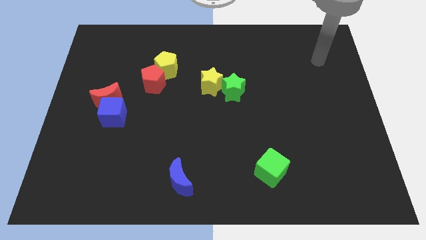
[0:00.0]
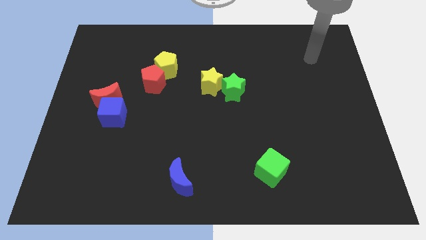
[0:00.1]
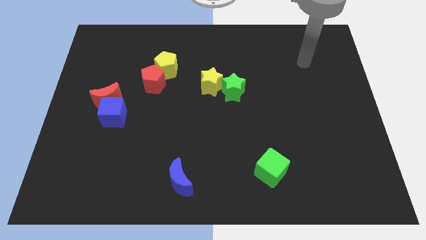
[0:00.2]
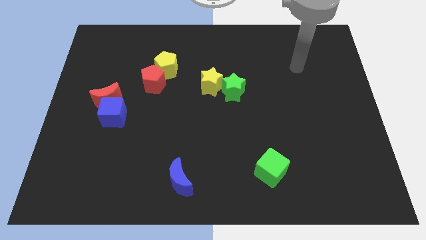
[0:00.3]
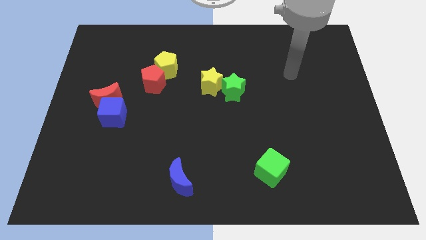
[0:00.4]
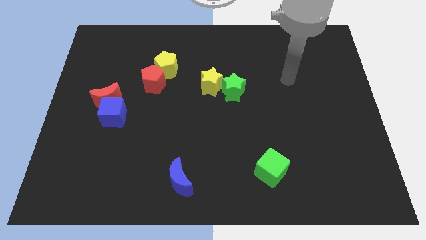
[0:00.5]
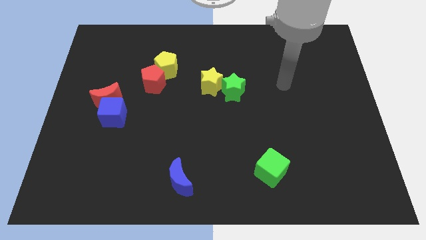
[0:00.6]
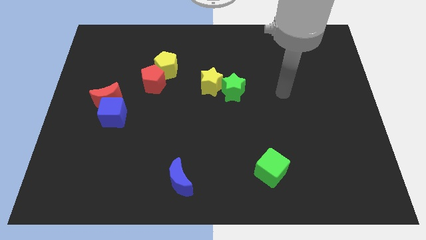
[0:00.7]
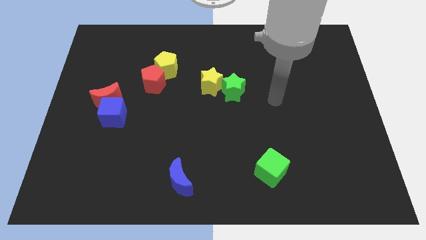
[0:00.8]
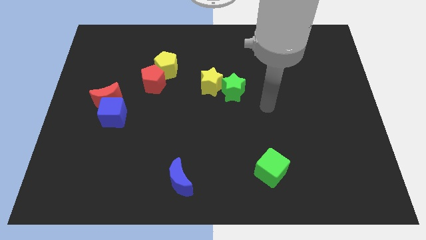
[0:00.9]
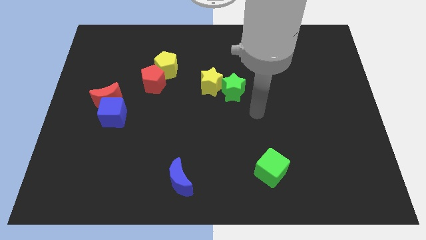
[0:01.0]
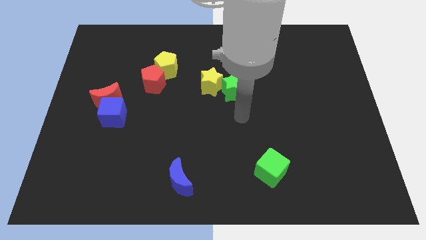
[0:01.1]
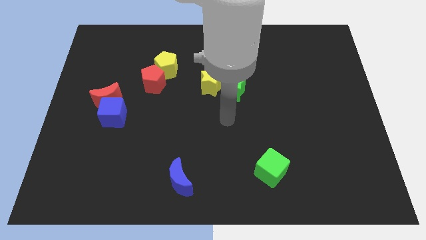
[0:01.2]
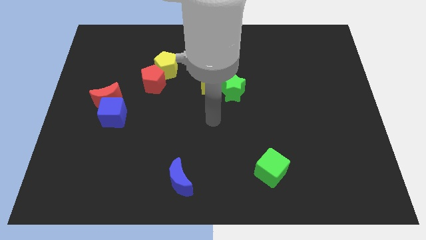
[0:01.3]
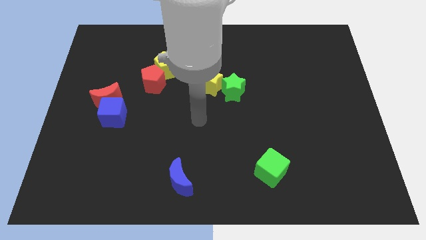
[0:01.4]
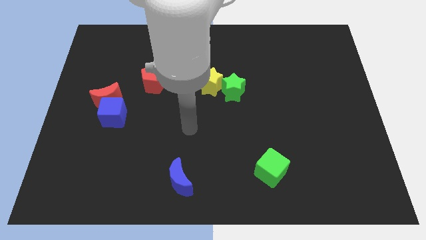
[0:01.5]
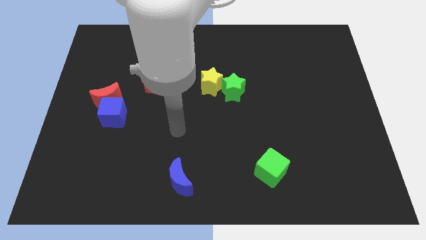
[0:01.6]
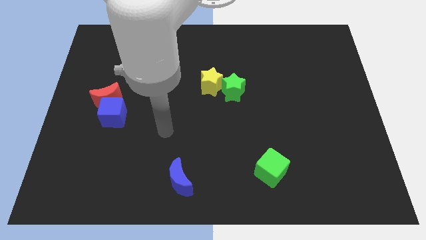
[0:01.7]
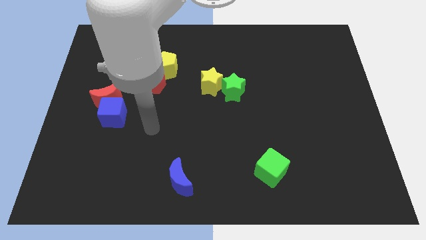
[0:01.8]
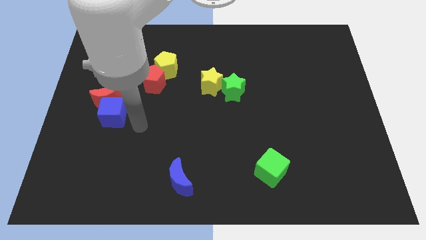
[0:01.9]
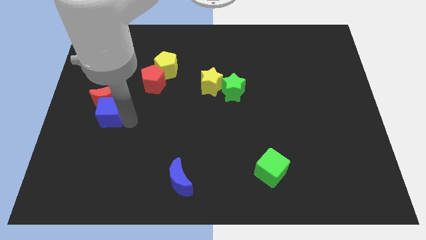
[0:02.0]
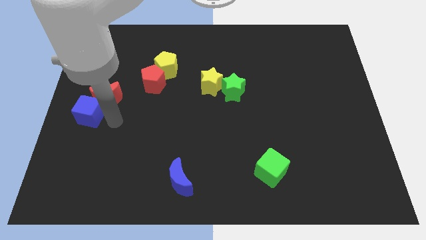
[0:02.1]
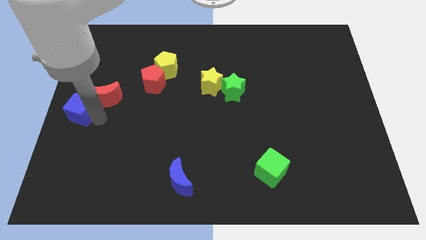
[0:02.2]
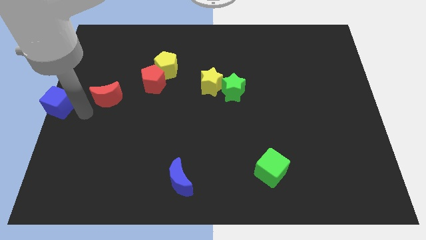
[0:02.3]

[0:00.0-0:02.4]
move the red moon away from the blue cube

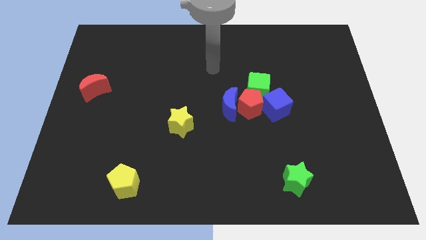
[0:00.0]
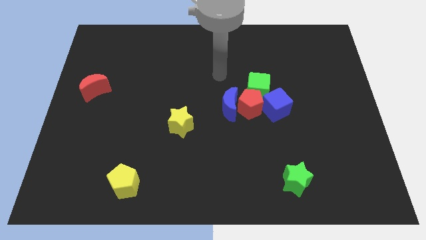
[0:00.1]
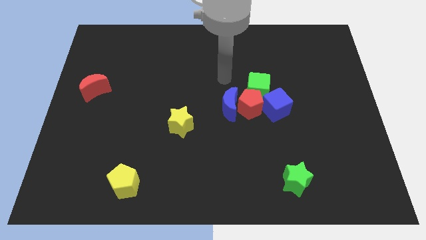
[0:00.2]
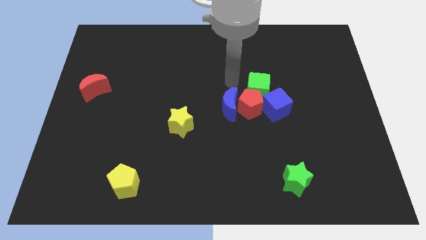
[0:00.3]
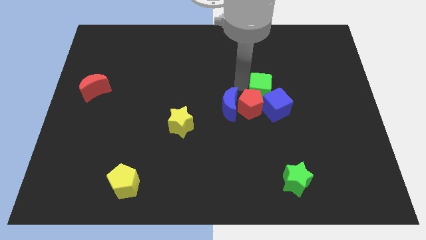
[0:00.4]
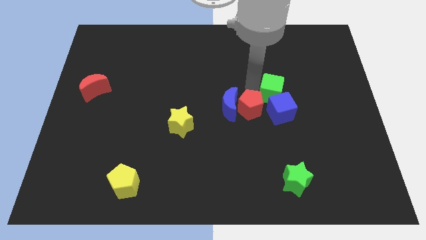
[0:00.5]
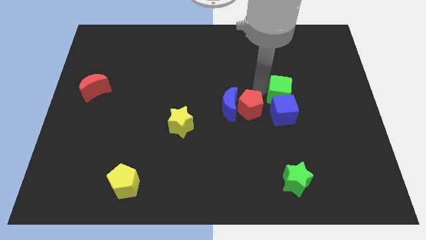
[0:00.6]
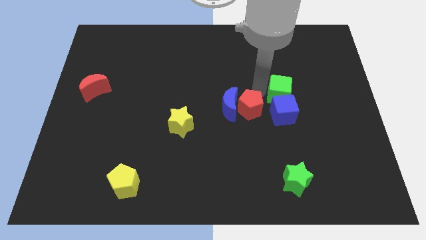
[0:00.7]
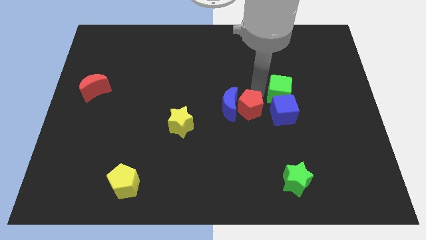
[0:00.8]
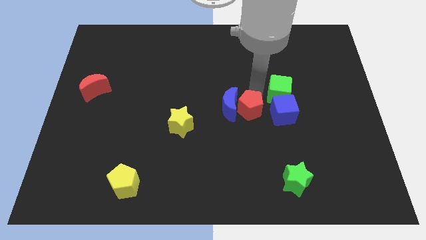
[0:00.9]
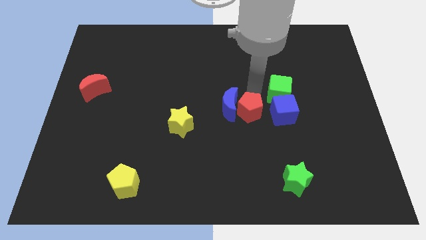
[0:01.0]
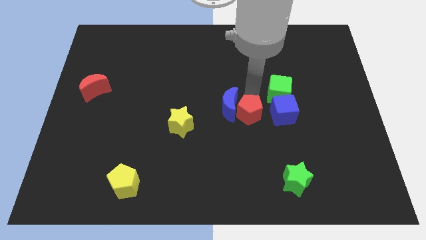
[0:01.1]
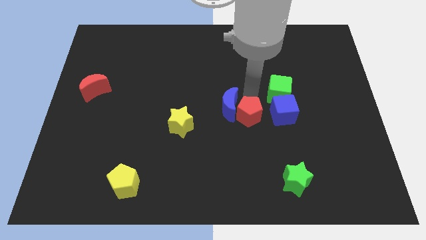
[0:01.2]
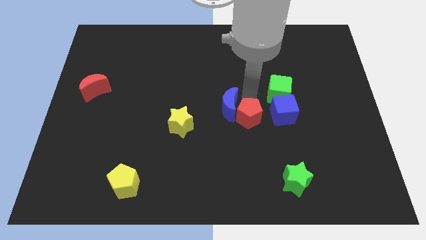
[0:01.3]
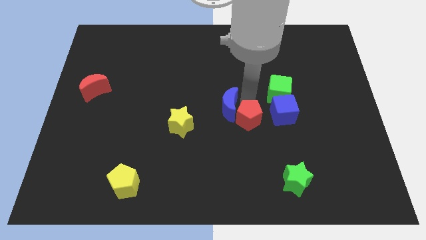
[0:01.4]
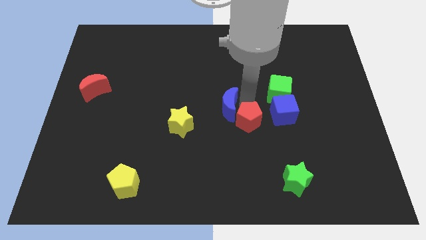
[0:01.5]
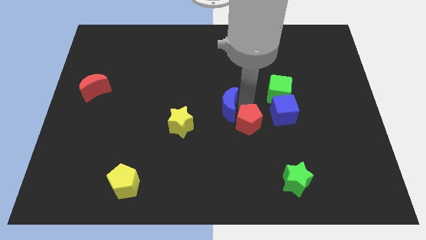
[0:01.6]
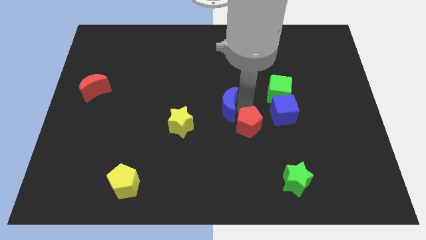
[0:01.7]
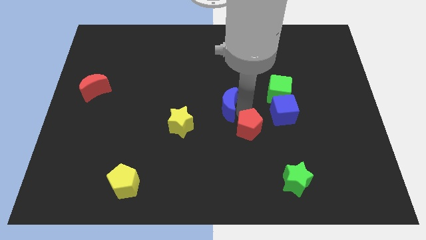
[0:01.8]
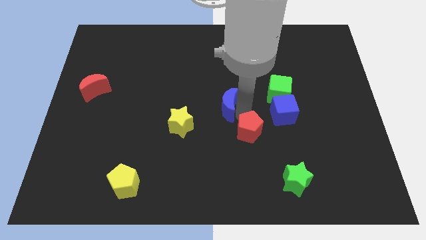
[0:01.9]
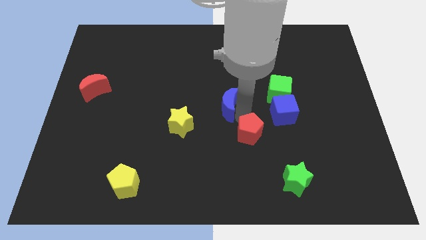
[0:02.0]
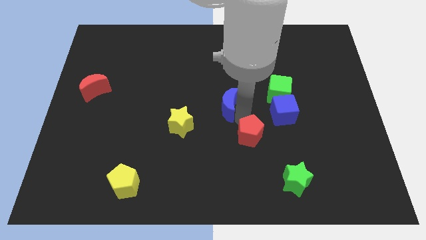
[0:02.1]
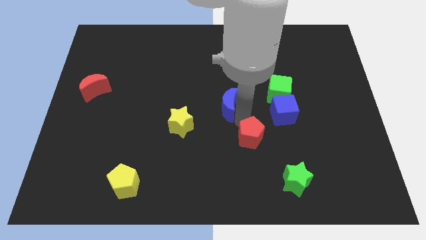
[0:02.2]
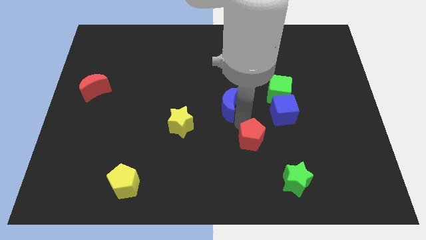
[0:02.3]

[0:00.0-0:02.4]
move the red pentagon away from the blue moon, green cube, and blue cube

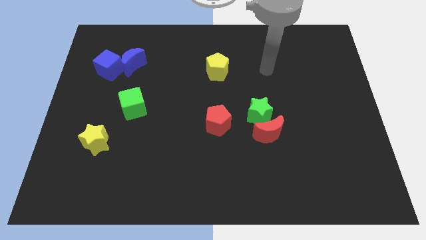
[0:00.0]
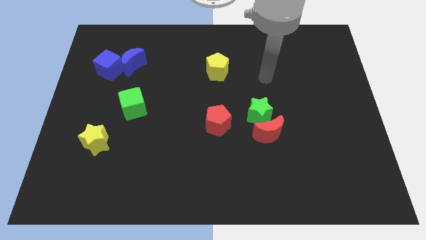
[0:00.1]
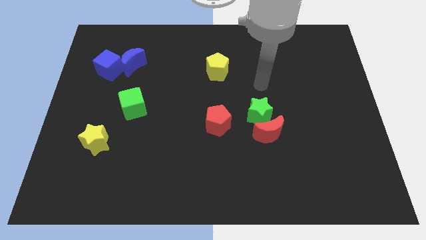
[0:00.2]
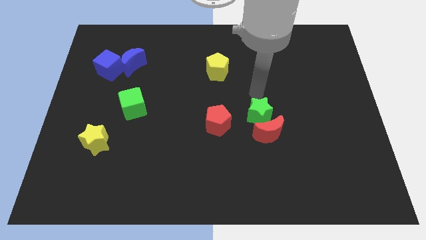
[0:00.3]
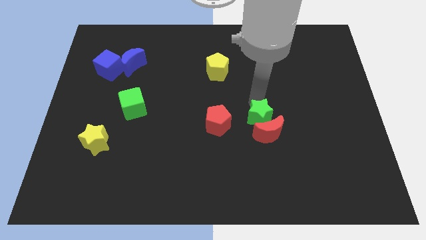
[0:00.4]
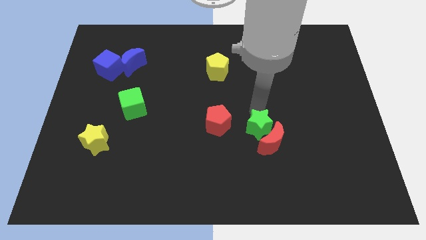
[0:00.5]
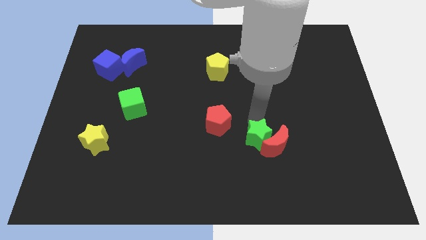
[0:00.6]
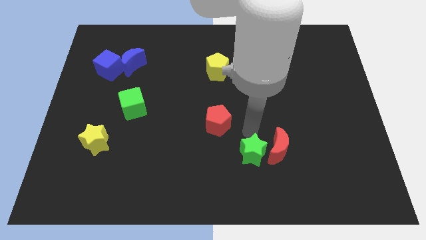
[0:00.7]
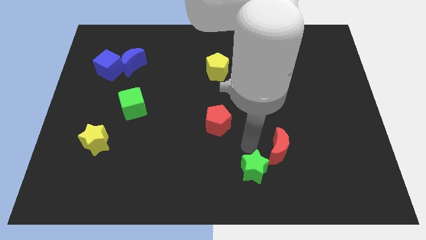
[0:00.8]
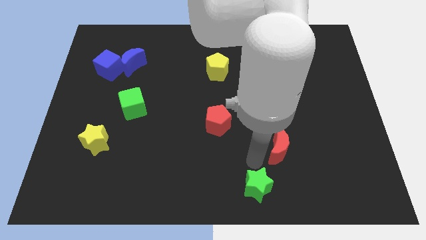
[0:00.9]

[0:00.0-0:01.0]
separate the red moon from the green star

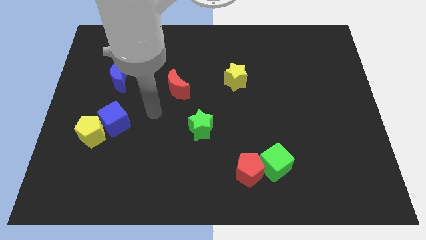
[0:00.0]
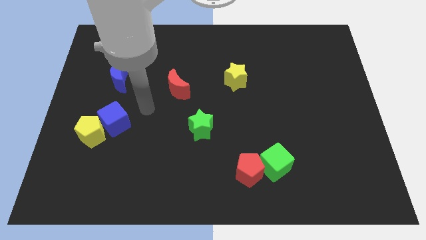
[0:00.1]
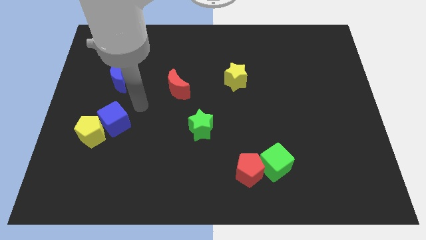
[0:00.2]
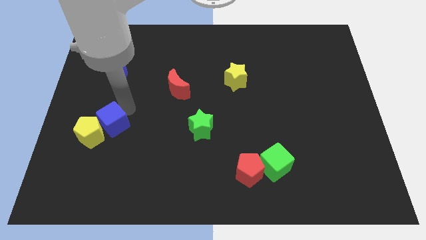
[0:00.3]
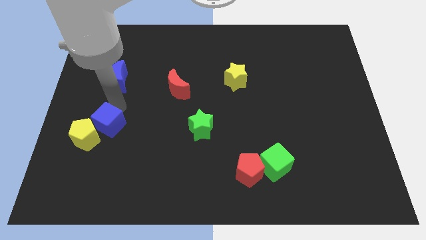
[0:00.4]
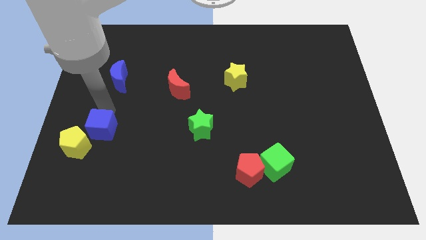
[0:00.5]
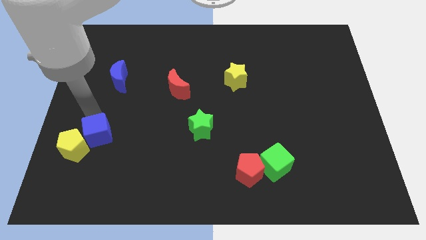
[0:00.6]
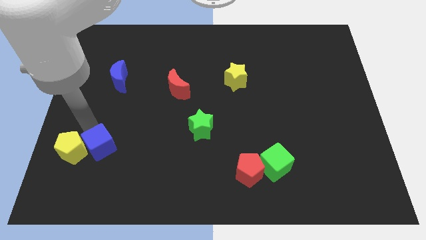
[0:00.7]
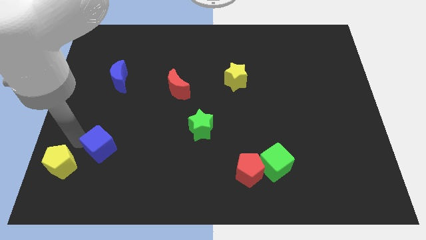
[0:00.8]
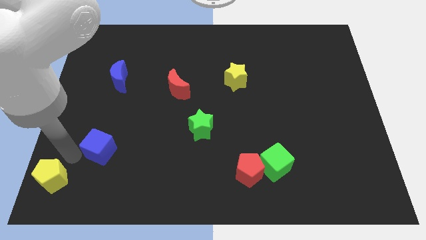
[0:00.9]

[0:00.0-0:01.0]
move the blue cube away from the yellow pentagon

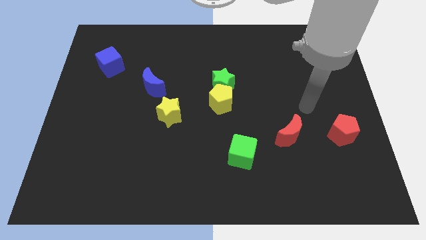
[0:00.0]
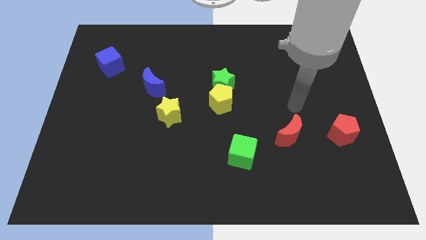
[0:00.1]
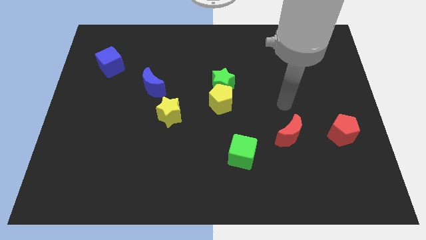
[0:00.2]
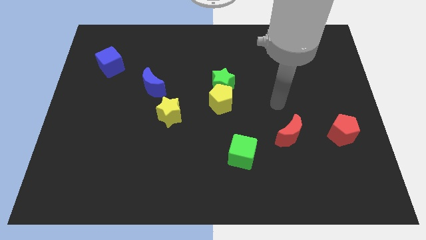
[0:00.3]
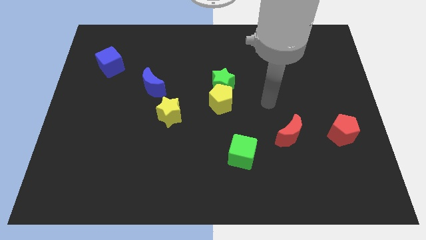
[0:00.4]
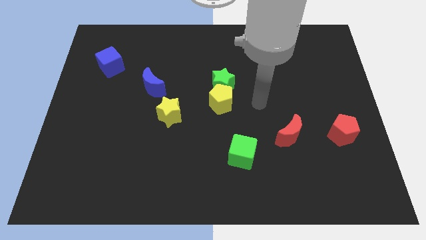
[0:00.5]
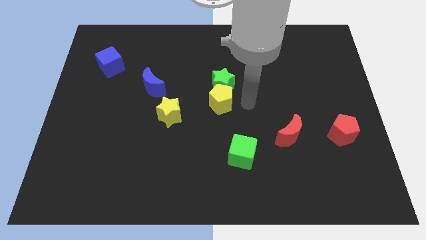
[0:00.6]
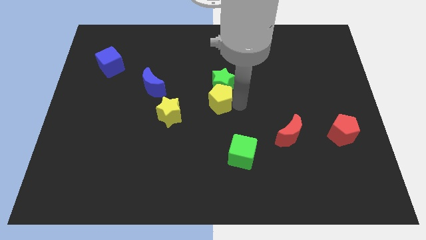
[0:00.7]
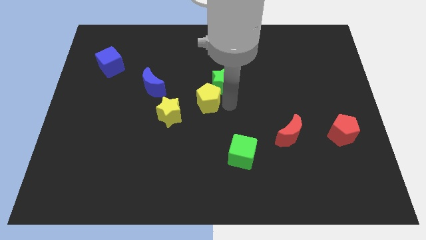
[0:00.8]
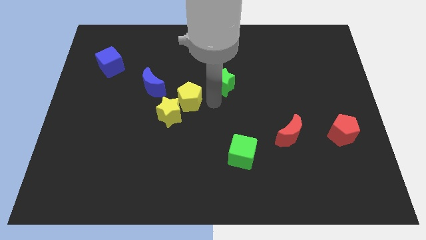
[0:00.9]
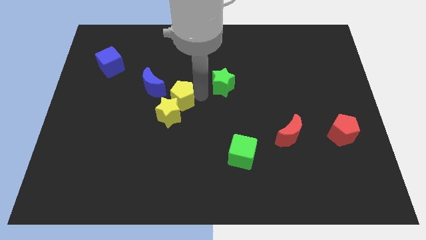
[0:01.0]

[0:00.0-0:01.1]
move the green star away from the yellow pentagon

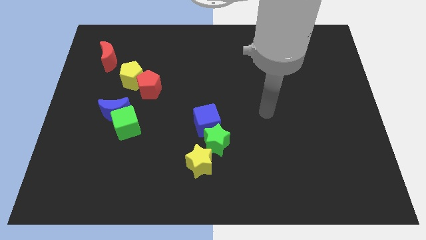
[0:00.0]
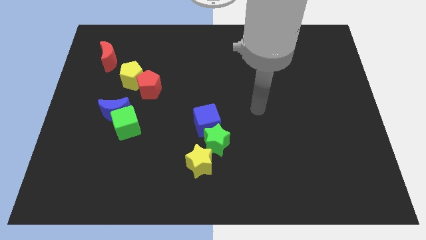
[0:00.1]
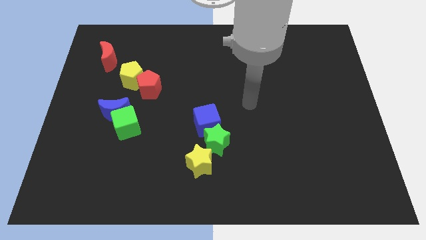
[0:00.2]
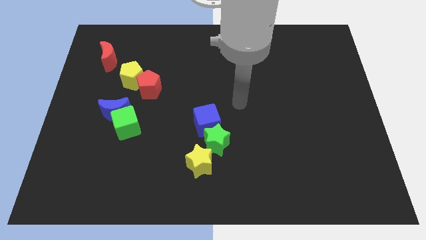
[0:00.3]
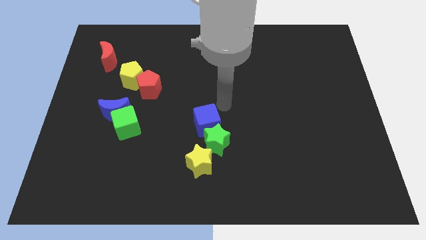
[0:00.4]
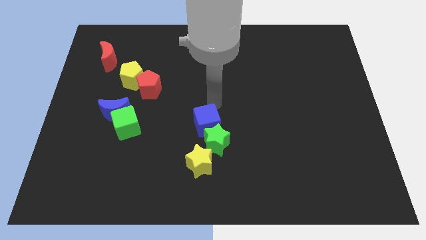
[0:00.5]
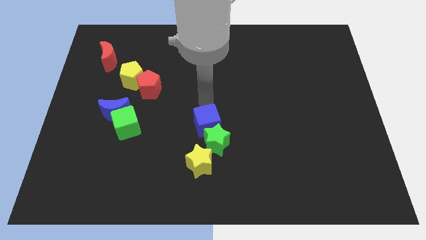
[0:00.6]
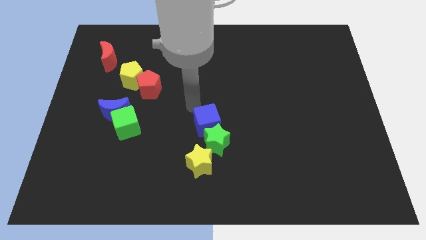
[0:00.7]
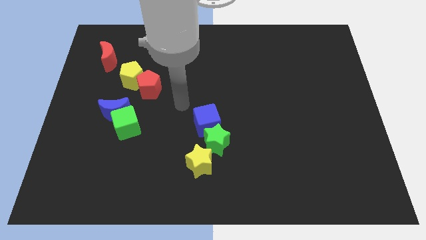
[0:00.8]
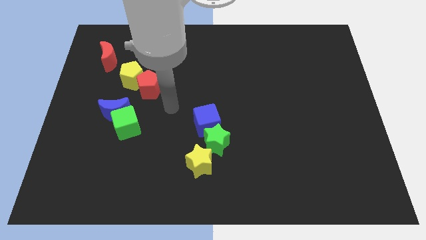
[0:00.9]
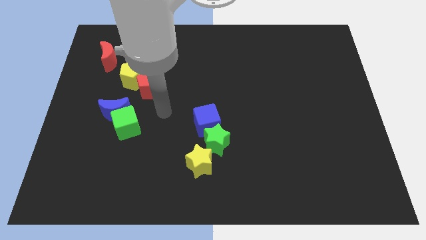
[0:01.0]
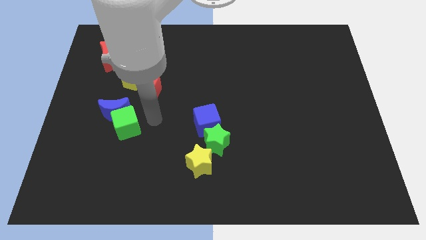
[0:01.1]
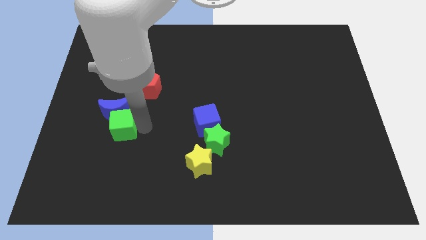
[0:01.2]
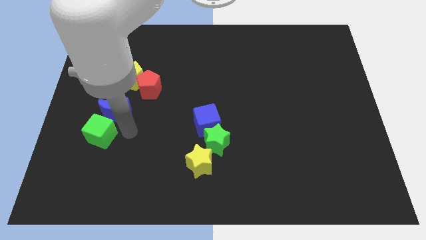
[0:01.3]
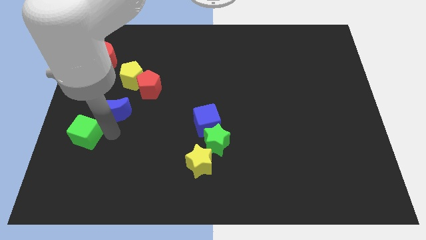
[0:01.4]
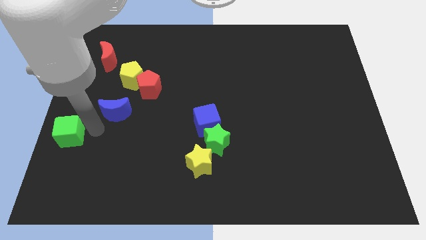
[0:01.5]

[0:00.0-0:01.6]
move the blue moon away from the green cube
